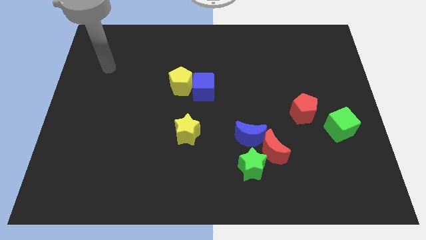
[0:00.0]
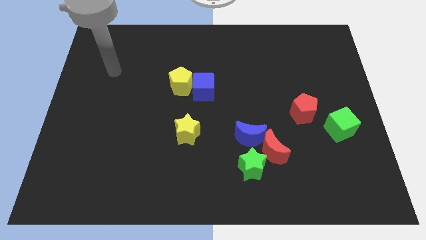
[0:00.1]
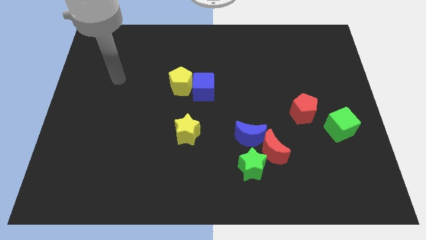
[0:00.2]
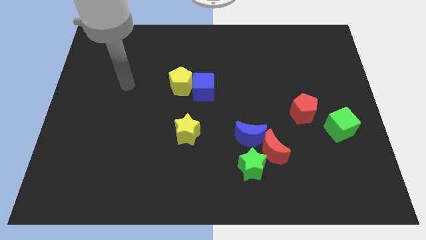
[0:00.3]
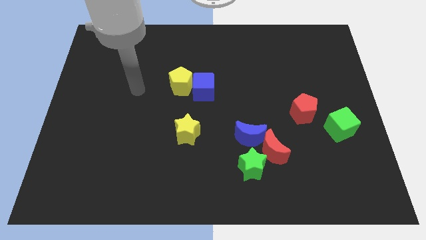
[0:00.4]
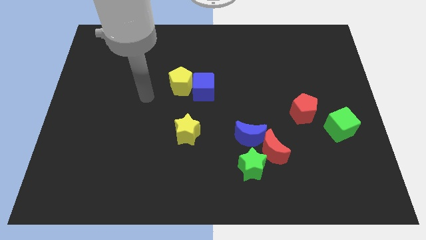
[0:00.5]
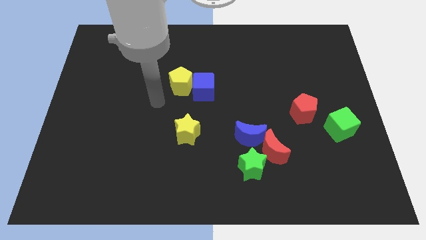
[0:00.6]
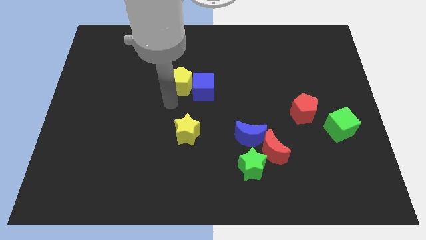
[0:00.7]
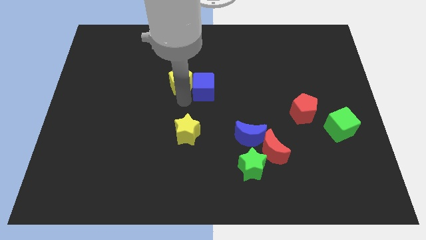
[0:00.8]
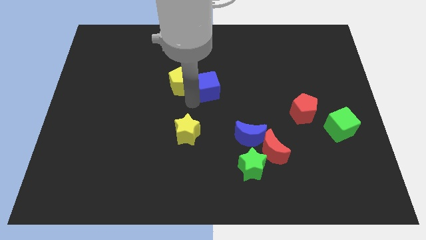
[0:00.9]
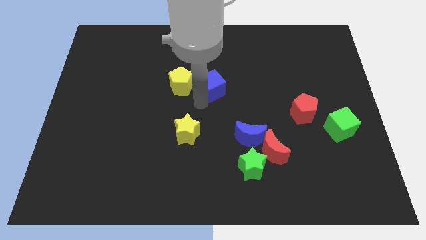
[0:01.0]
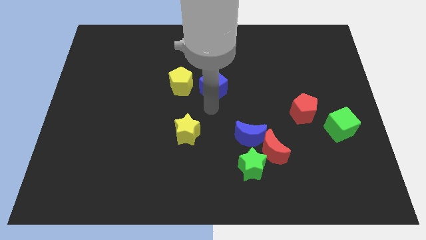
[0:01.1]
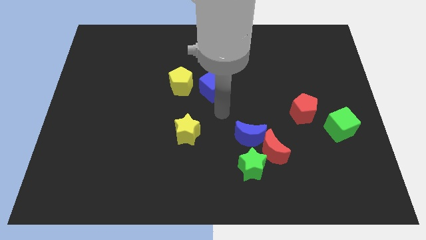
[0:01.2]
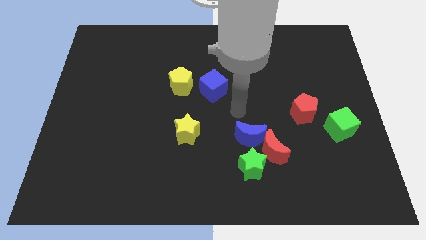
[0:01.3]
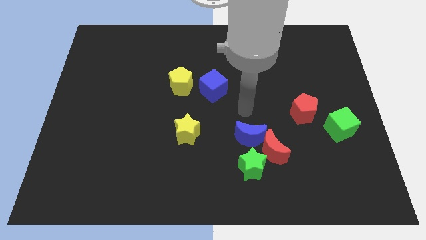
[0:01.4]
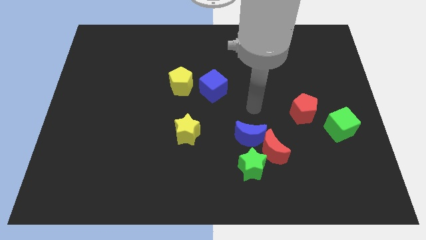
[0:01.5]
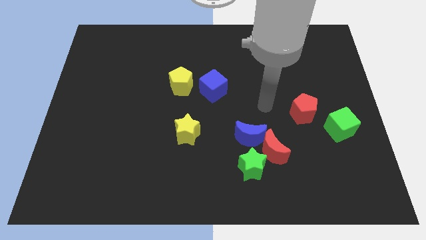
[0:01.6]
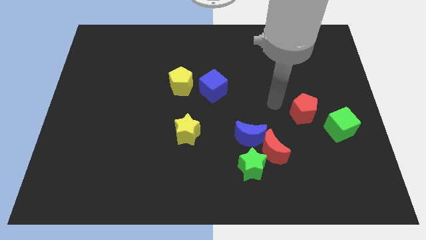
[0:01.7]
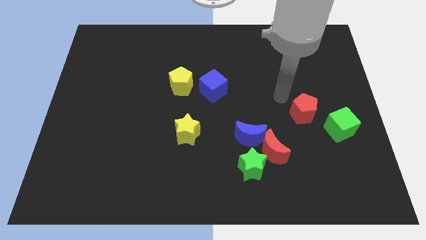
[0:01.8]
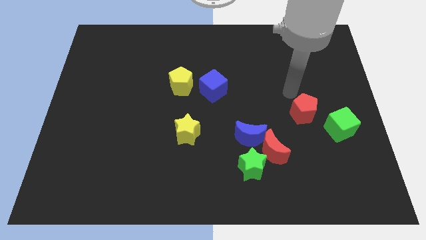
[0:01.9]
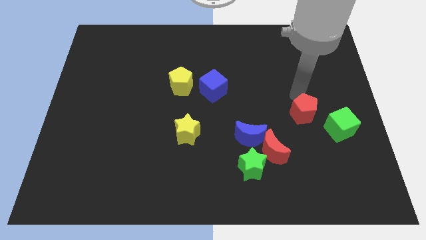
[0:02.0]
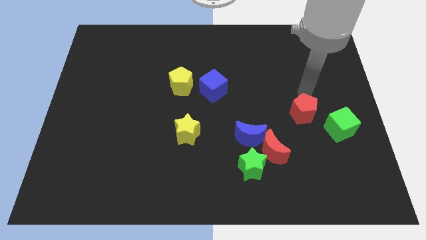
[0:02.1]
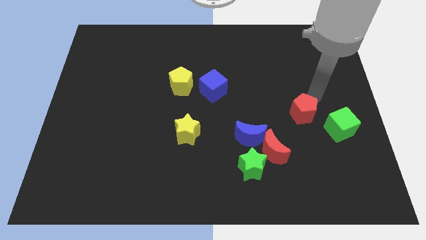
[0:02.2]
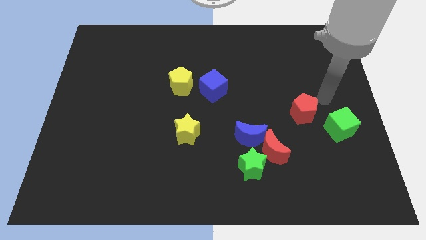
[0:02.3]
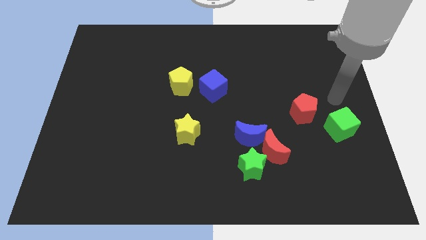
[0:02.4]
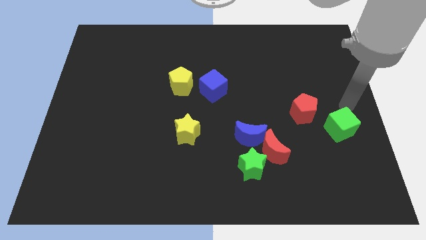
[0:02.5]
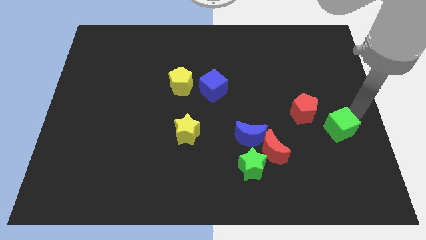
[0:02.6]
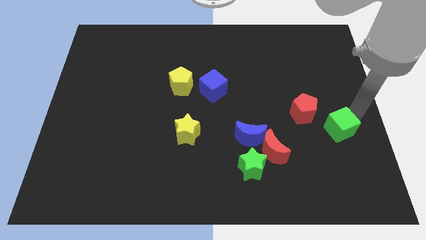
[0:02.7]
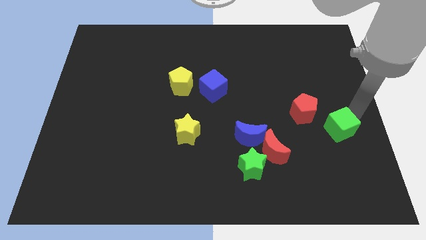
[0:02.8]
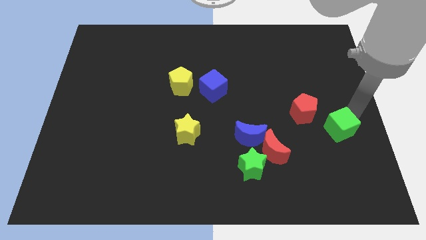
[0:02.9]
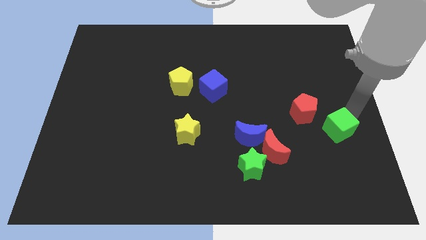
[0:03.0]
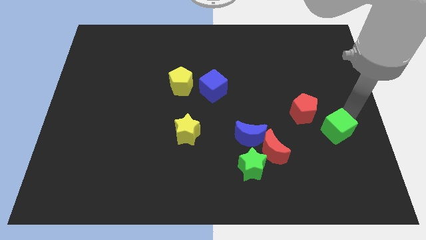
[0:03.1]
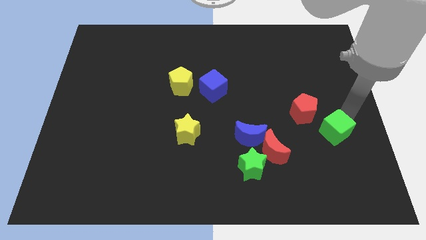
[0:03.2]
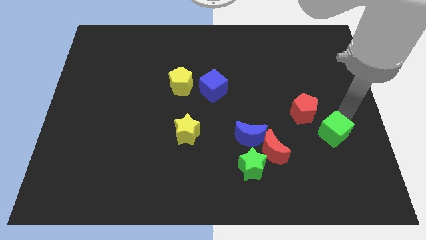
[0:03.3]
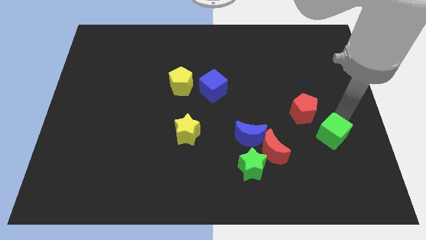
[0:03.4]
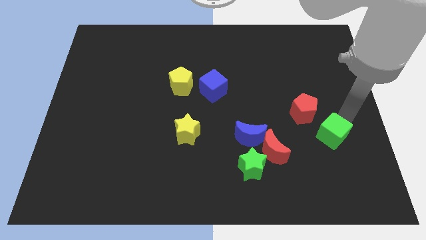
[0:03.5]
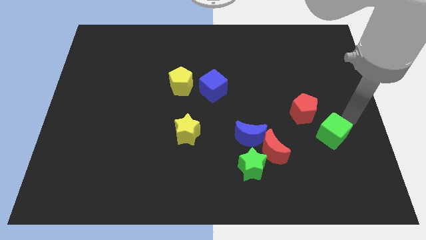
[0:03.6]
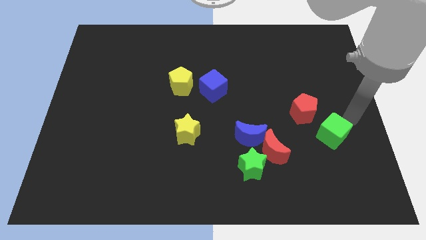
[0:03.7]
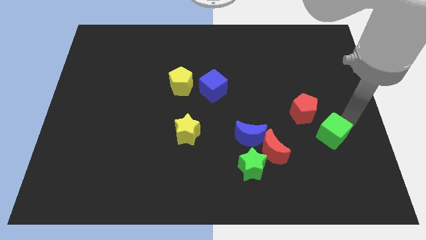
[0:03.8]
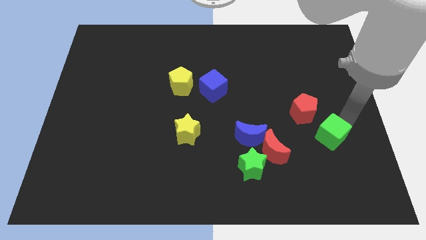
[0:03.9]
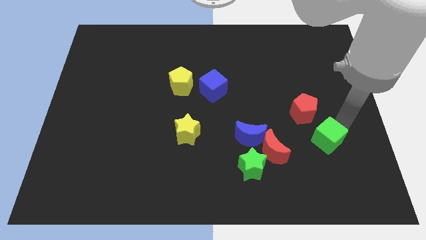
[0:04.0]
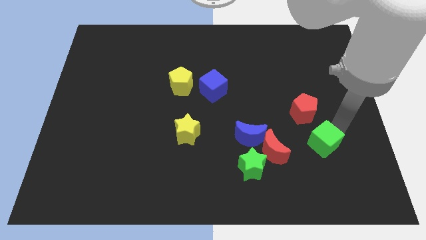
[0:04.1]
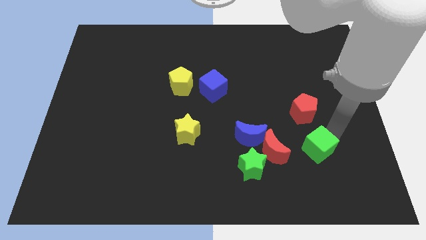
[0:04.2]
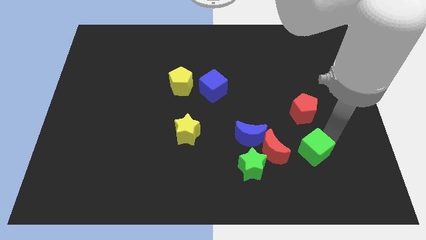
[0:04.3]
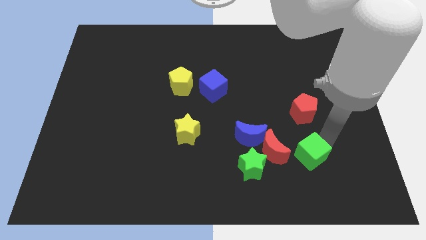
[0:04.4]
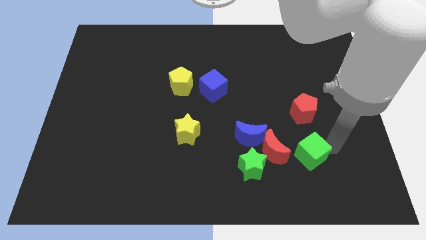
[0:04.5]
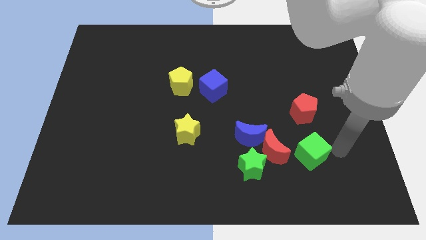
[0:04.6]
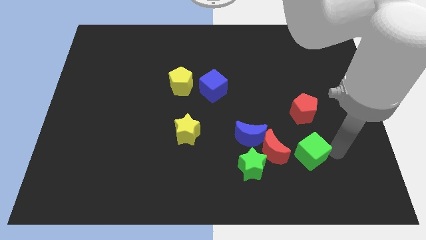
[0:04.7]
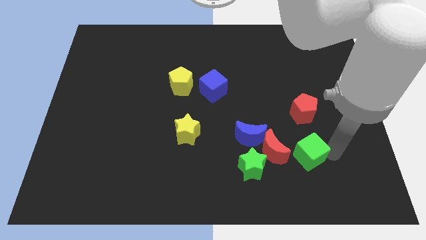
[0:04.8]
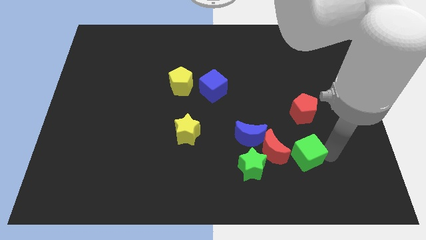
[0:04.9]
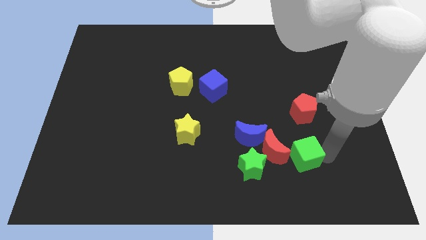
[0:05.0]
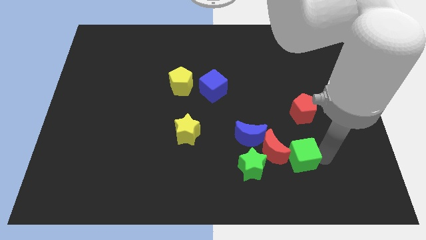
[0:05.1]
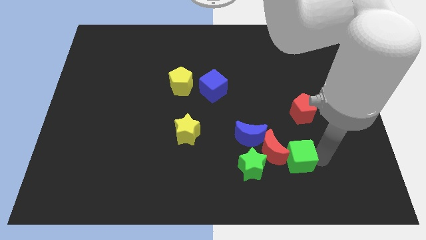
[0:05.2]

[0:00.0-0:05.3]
slide the green cube to the bottom right of the blue moon

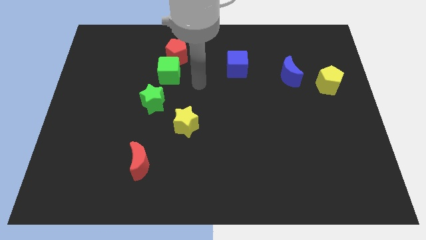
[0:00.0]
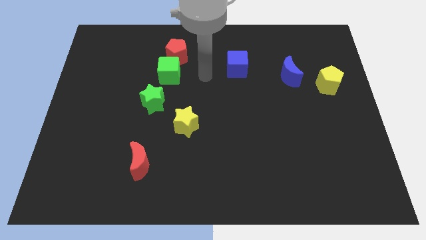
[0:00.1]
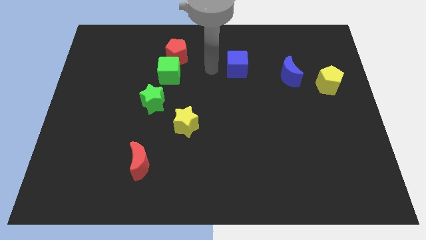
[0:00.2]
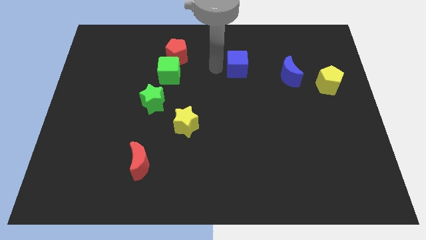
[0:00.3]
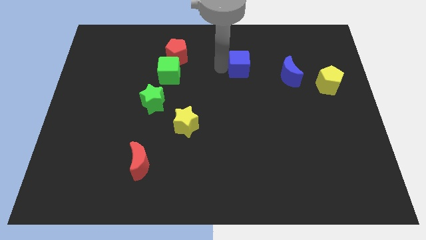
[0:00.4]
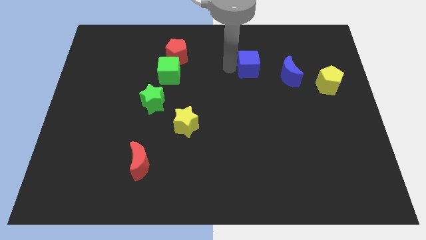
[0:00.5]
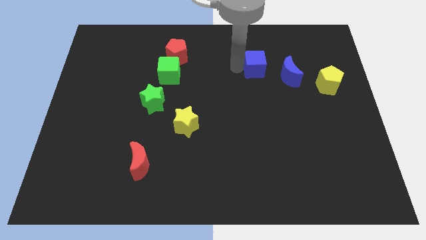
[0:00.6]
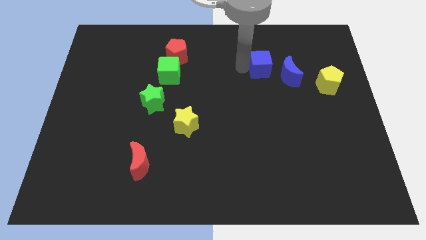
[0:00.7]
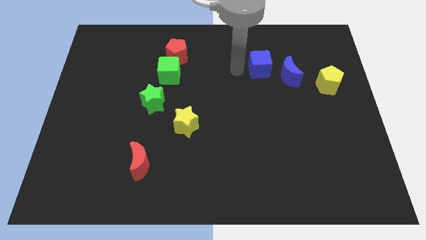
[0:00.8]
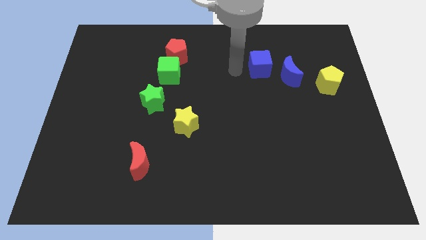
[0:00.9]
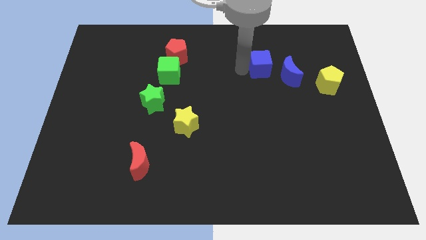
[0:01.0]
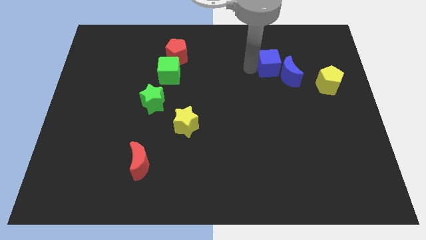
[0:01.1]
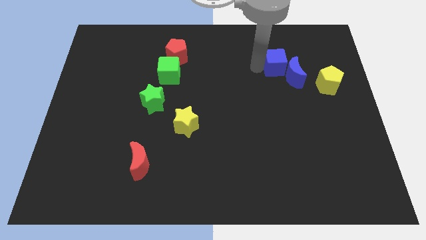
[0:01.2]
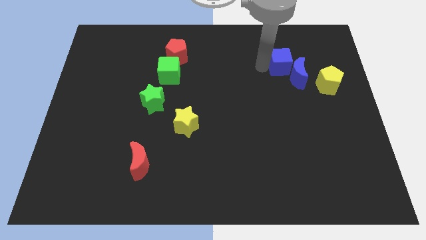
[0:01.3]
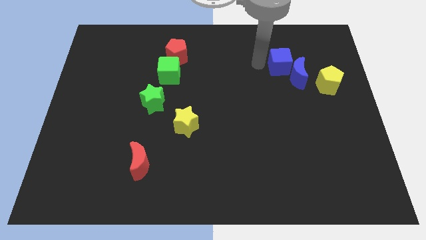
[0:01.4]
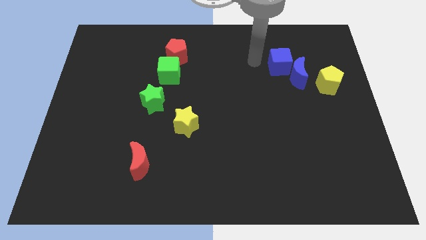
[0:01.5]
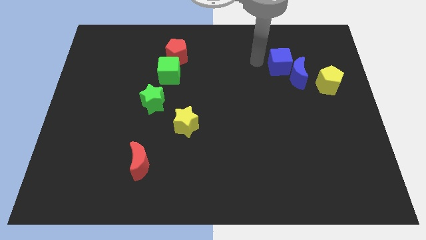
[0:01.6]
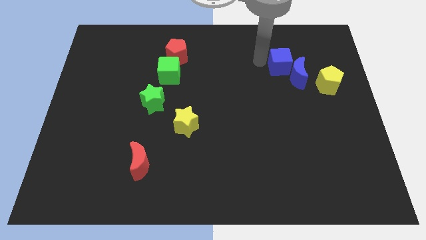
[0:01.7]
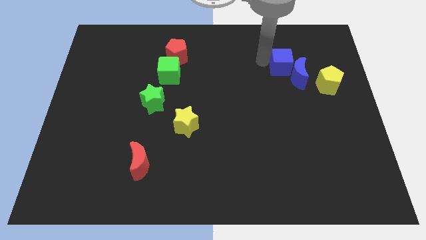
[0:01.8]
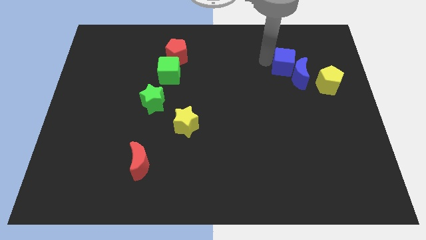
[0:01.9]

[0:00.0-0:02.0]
slide the blue cube diagonally up and to the left of the yellow pentagon

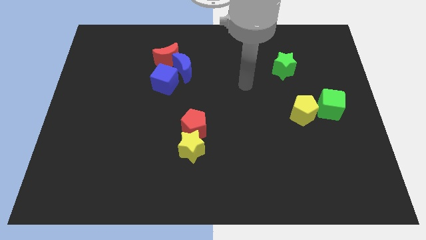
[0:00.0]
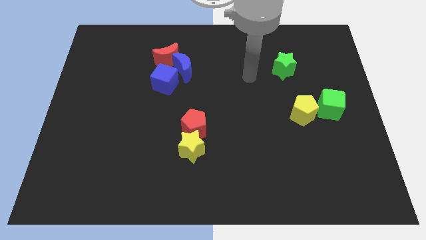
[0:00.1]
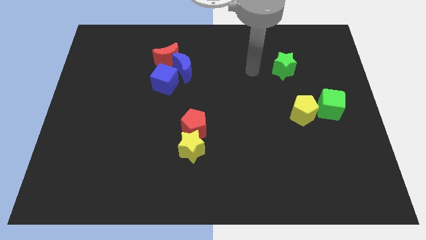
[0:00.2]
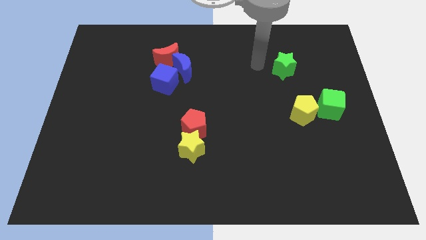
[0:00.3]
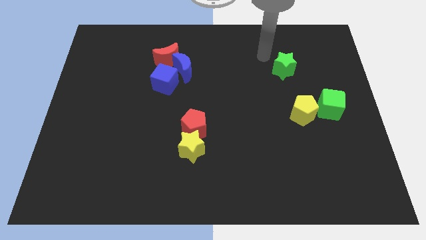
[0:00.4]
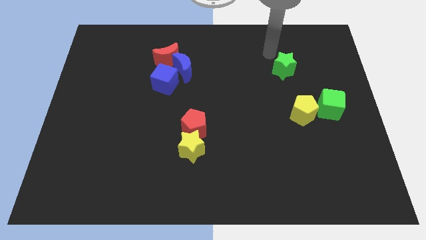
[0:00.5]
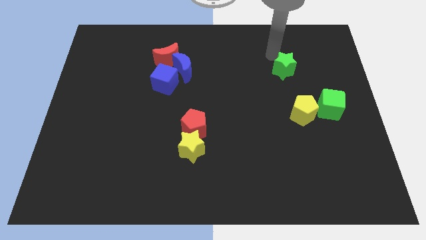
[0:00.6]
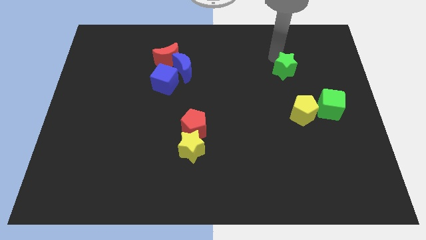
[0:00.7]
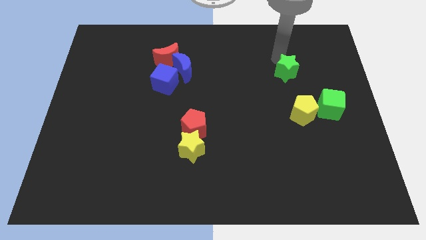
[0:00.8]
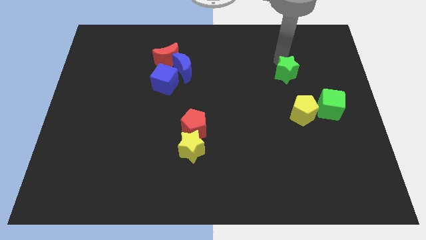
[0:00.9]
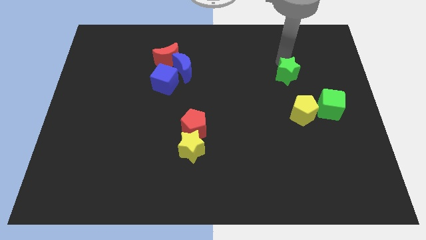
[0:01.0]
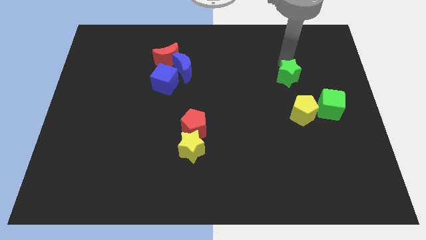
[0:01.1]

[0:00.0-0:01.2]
put the green star to the top left side of the green cube
